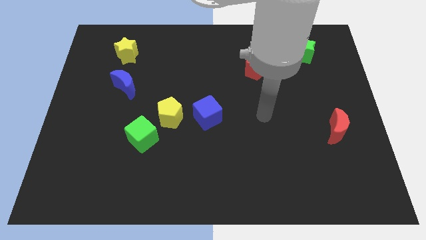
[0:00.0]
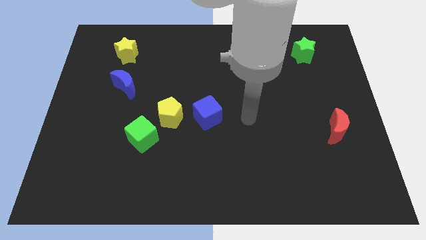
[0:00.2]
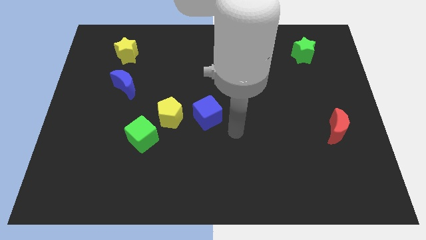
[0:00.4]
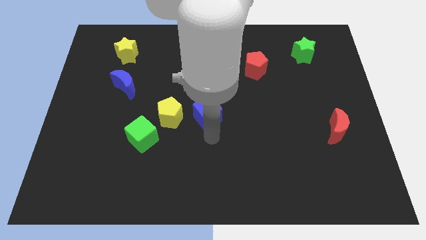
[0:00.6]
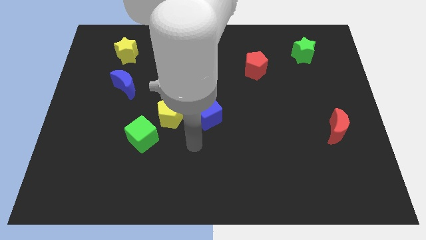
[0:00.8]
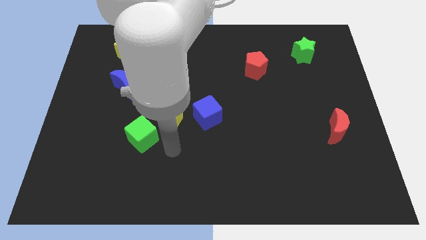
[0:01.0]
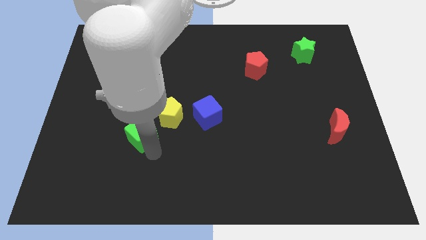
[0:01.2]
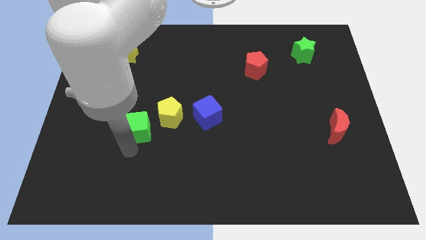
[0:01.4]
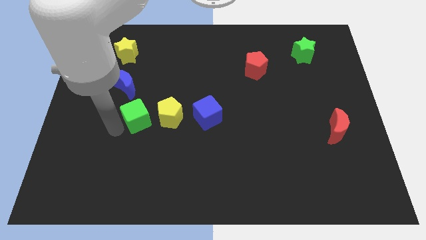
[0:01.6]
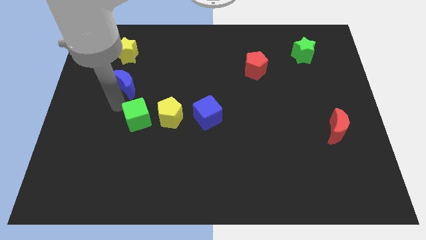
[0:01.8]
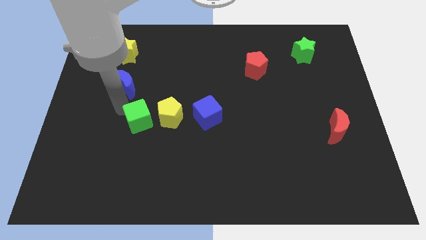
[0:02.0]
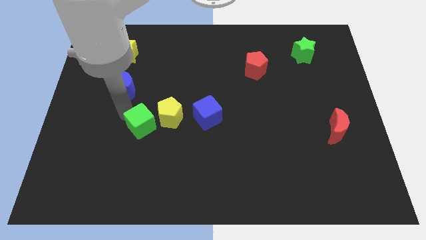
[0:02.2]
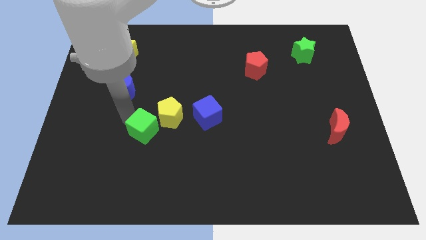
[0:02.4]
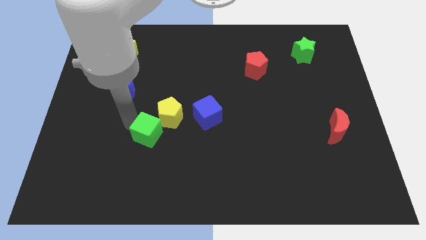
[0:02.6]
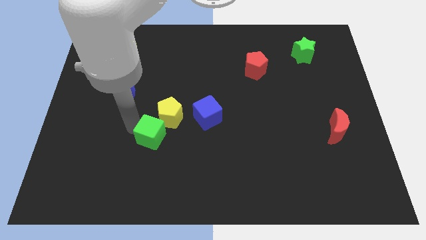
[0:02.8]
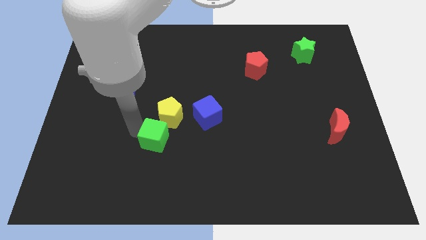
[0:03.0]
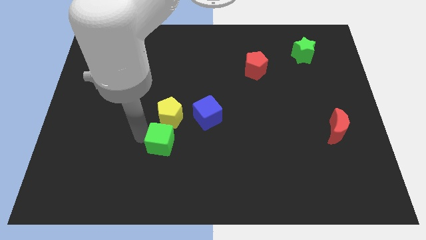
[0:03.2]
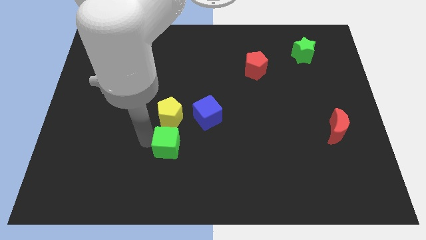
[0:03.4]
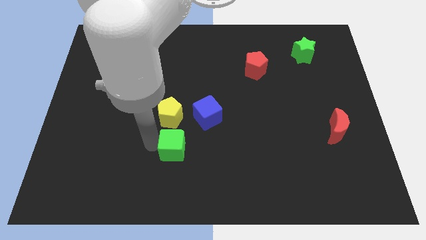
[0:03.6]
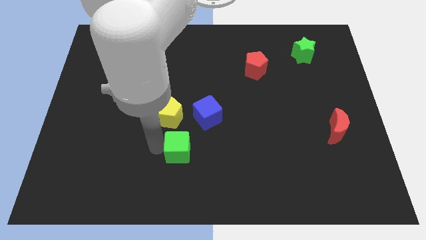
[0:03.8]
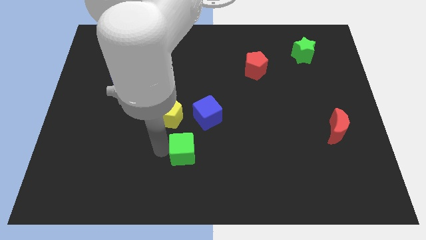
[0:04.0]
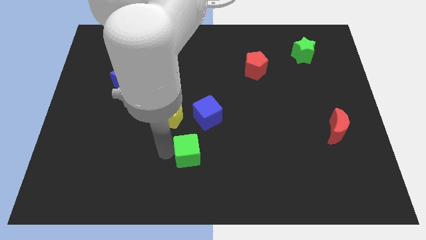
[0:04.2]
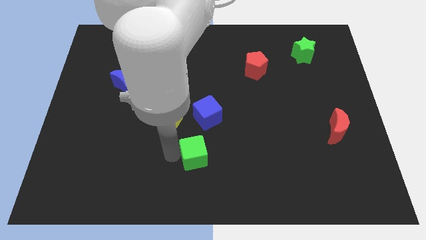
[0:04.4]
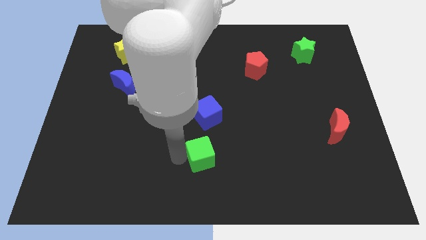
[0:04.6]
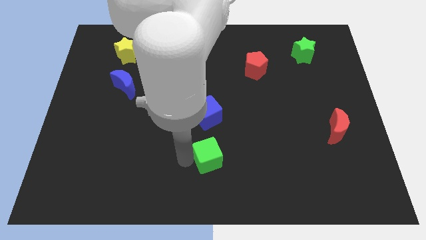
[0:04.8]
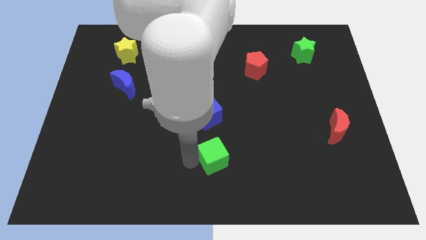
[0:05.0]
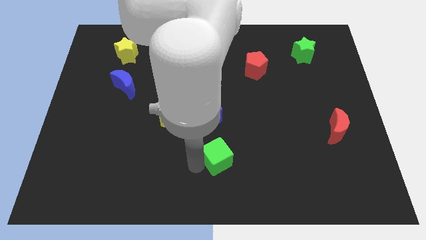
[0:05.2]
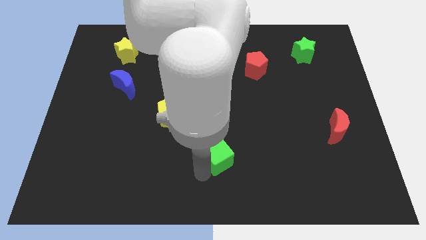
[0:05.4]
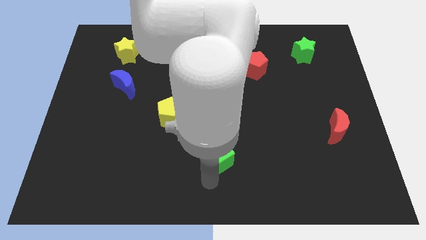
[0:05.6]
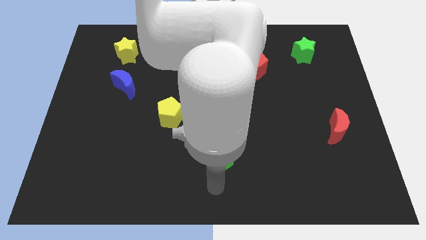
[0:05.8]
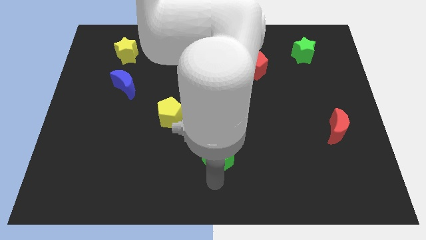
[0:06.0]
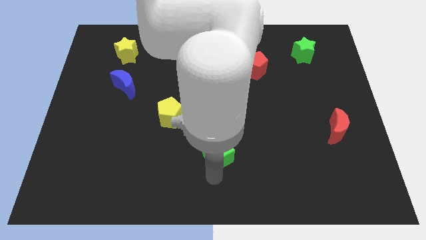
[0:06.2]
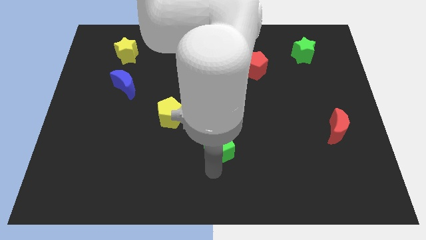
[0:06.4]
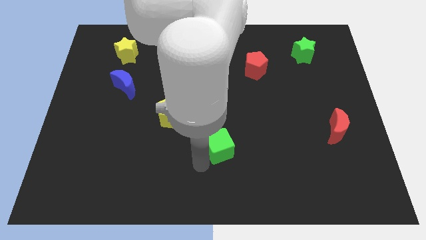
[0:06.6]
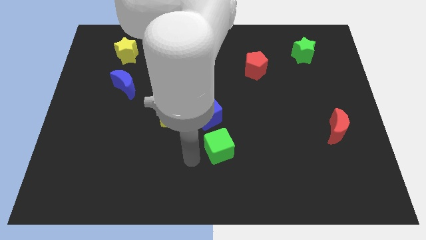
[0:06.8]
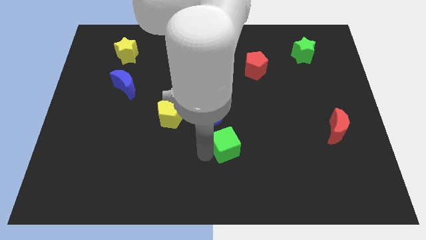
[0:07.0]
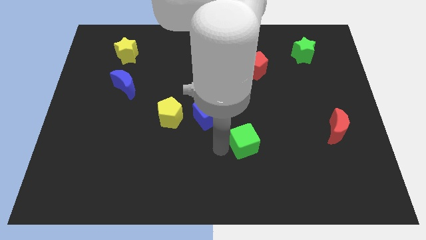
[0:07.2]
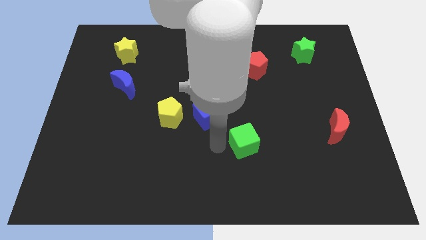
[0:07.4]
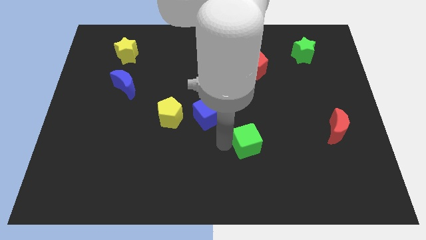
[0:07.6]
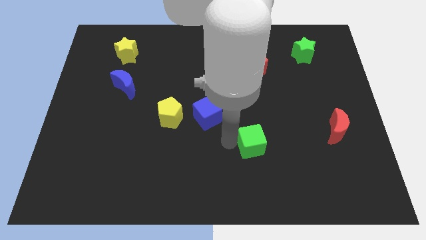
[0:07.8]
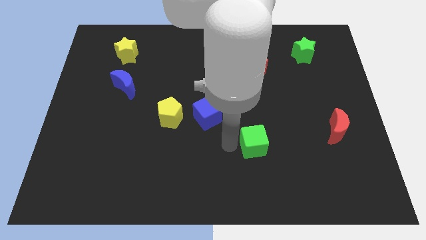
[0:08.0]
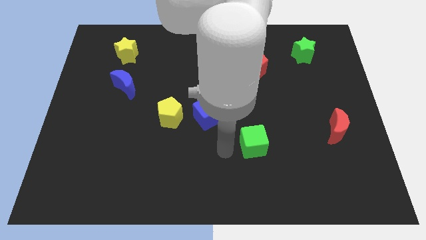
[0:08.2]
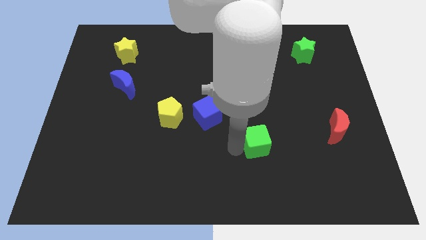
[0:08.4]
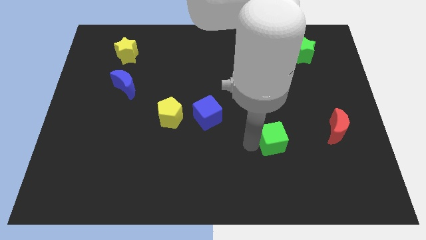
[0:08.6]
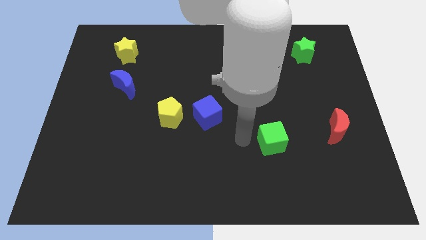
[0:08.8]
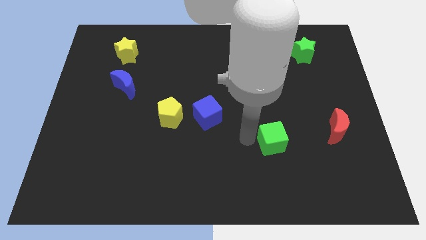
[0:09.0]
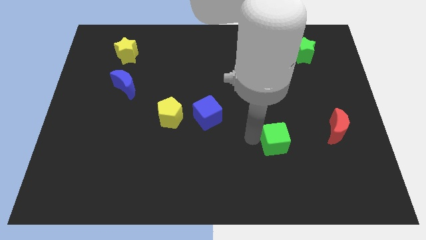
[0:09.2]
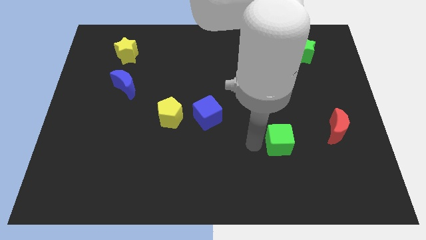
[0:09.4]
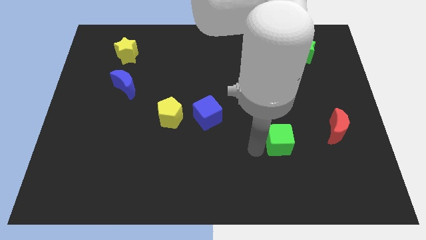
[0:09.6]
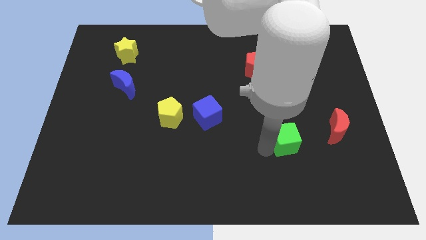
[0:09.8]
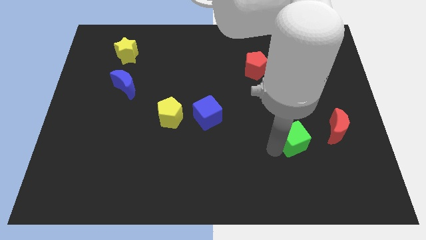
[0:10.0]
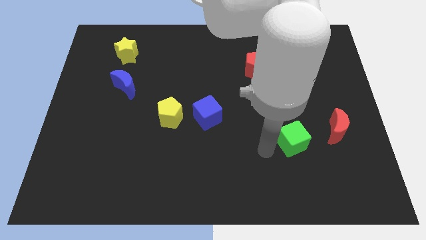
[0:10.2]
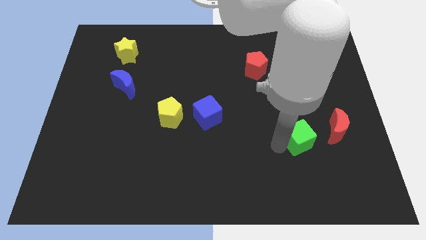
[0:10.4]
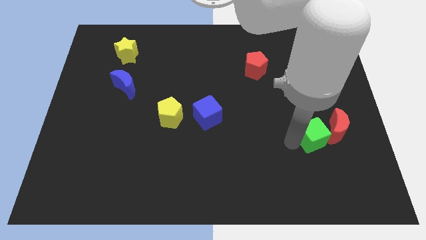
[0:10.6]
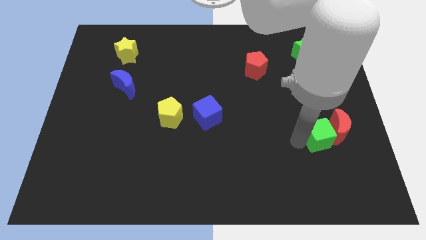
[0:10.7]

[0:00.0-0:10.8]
move the green cube to the red moon

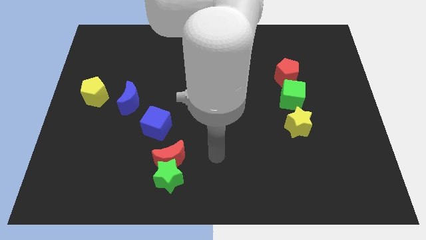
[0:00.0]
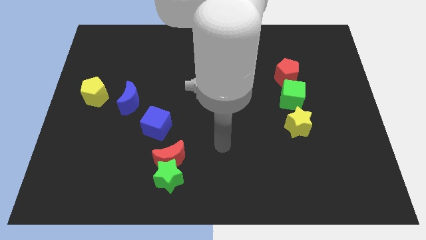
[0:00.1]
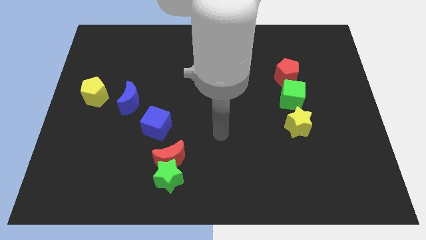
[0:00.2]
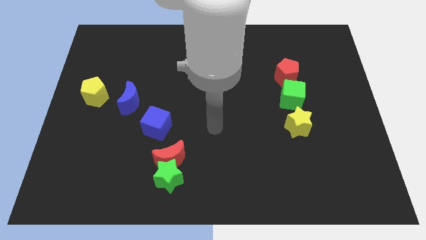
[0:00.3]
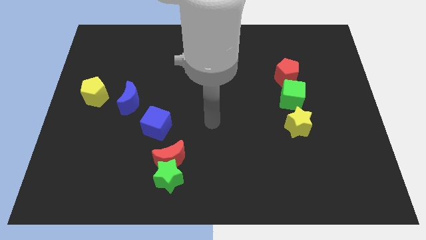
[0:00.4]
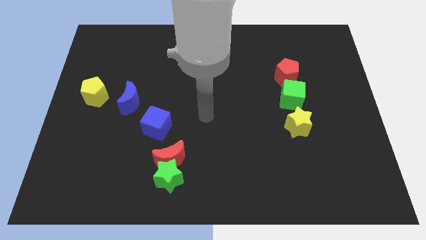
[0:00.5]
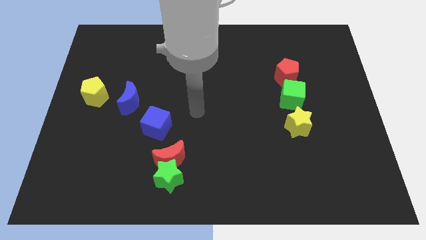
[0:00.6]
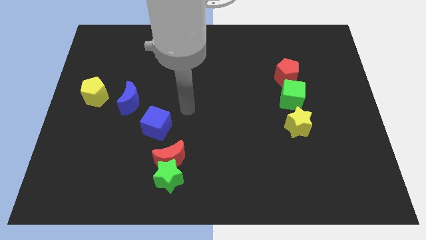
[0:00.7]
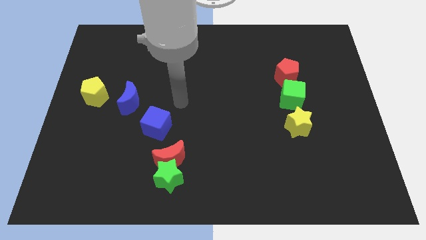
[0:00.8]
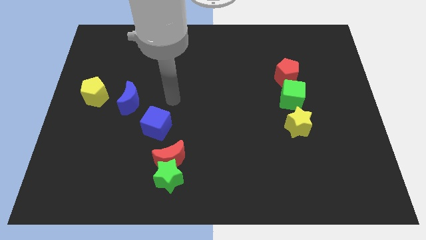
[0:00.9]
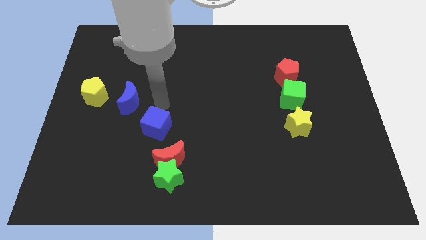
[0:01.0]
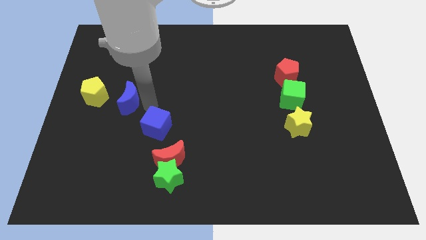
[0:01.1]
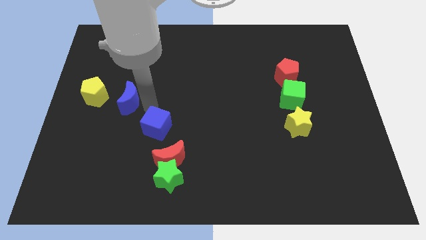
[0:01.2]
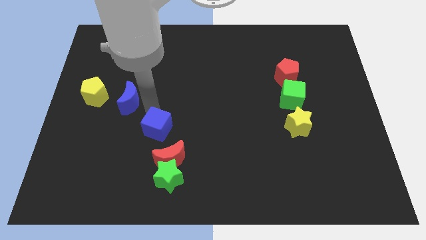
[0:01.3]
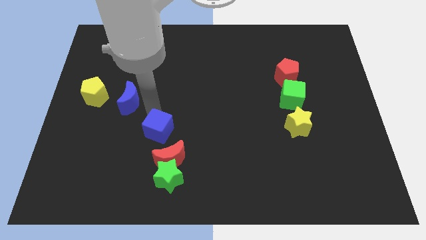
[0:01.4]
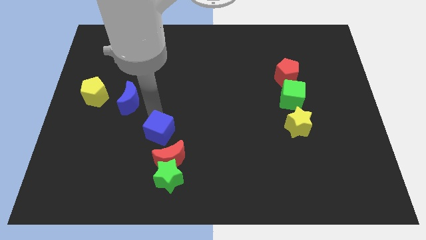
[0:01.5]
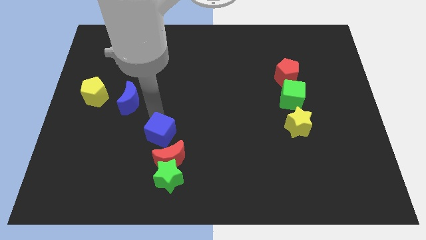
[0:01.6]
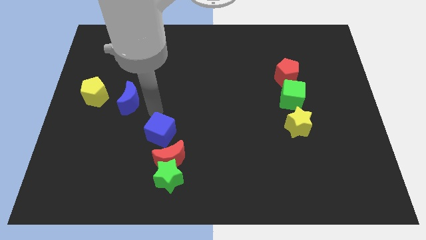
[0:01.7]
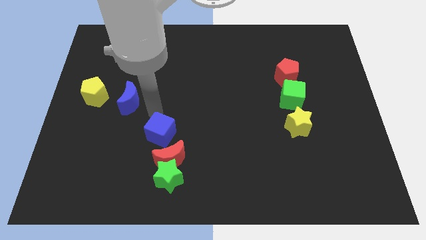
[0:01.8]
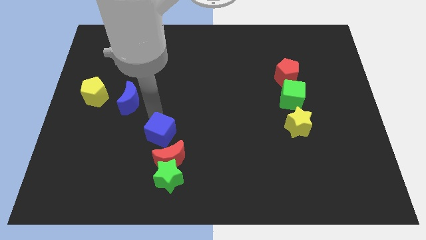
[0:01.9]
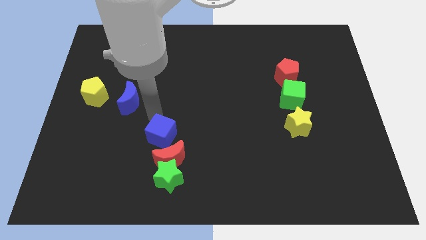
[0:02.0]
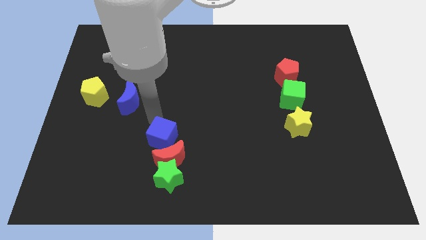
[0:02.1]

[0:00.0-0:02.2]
slide the blue cube close to the red moon

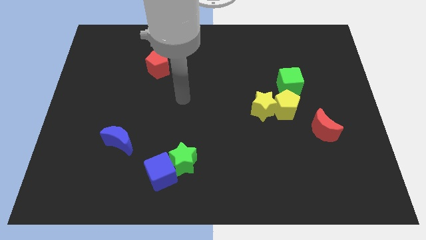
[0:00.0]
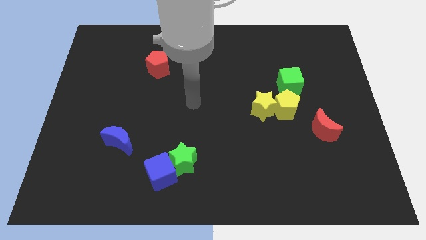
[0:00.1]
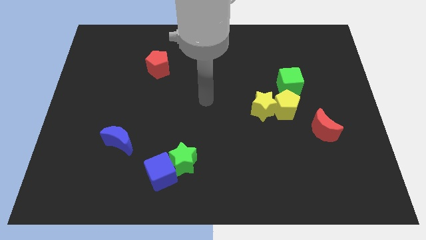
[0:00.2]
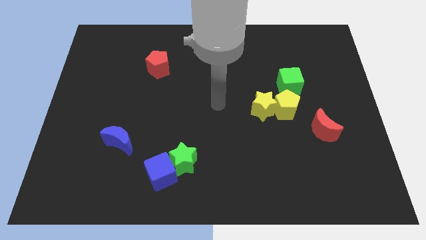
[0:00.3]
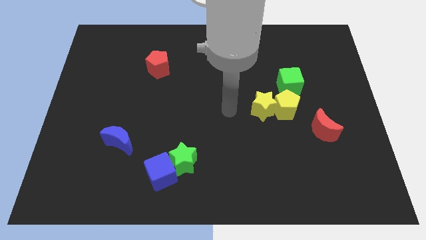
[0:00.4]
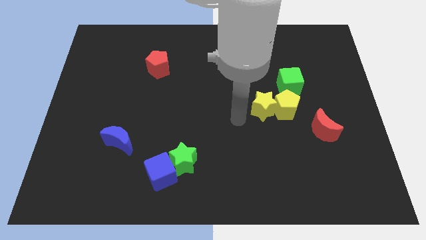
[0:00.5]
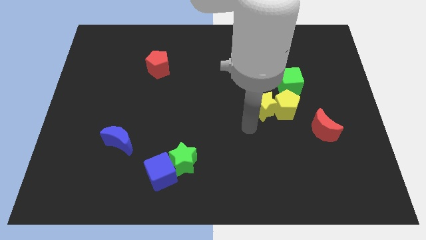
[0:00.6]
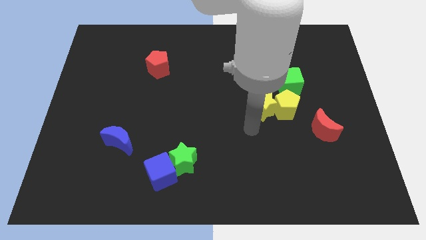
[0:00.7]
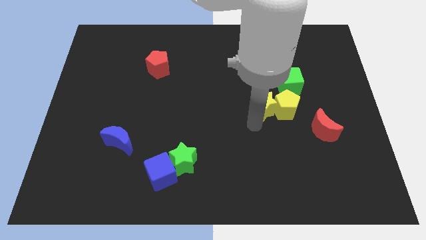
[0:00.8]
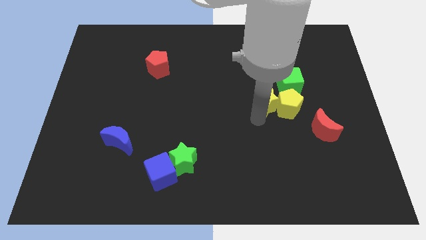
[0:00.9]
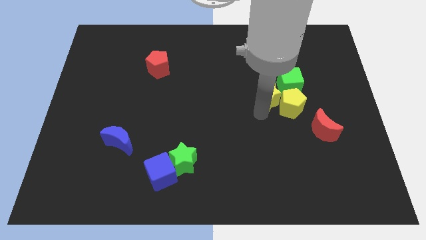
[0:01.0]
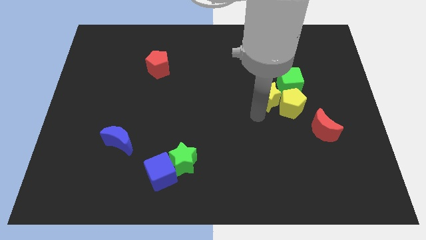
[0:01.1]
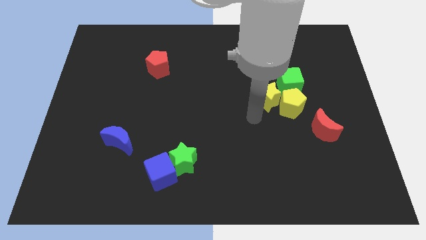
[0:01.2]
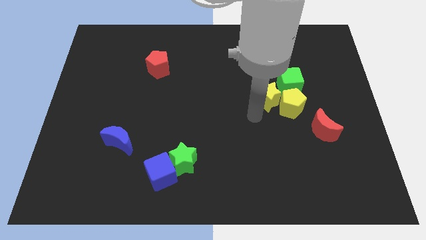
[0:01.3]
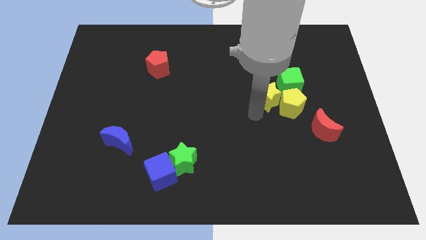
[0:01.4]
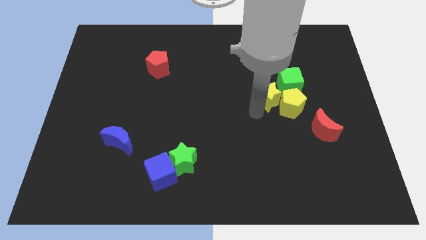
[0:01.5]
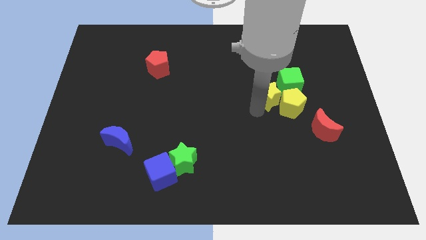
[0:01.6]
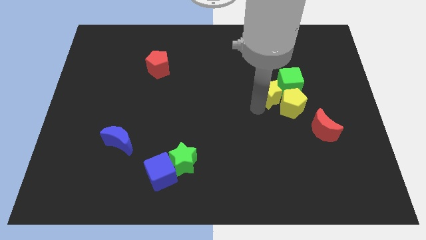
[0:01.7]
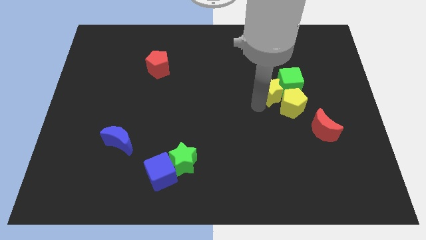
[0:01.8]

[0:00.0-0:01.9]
move the yellow star next to the green cube
